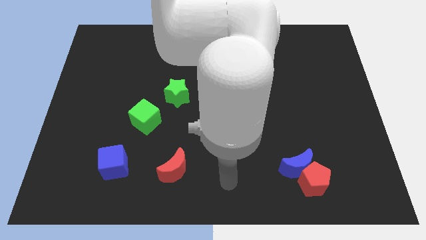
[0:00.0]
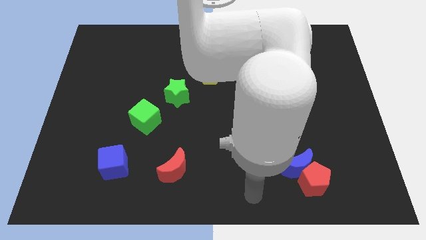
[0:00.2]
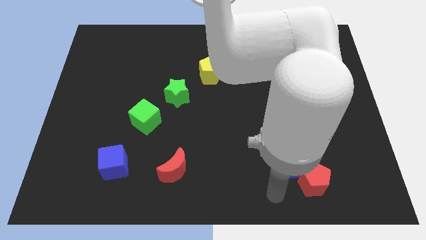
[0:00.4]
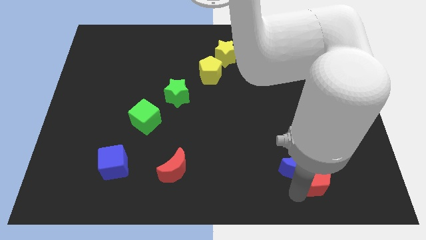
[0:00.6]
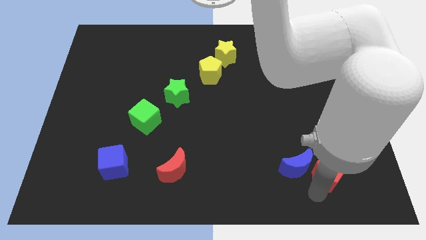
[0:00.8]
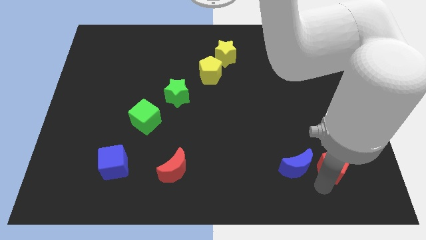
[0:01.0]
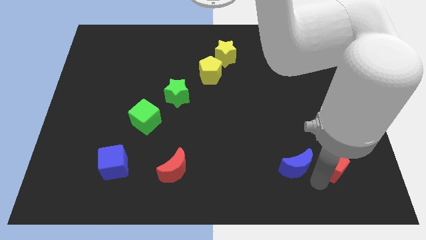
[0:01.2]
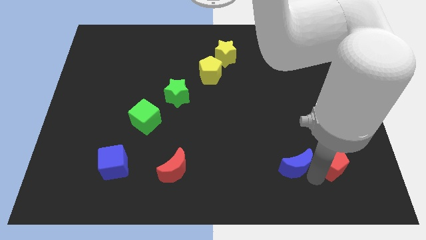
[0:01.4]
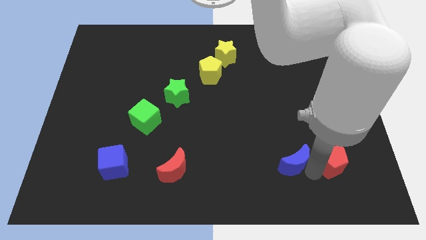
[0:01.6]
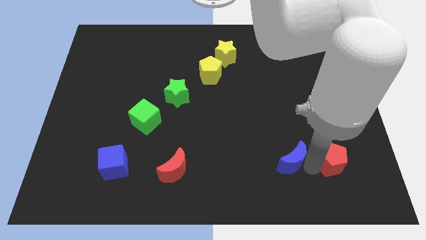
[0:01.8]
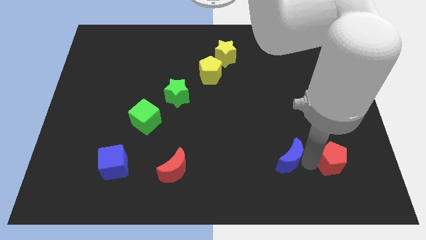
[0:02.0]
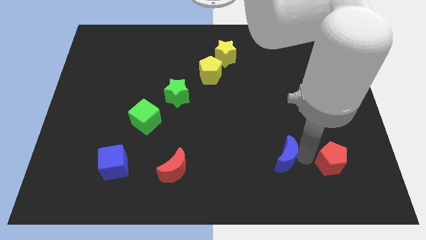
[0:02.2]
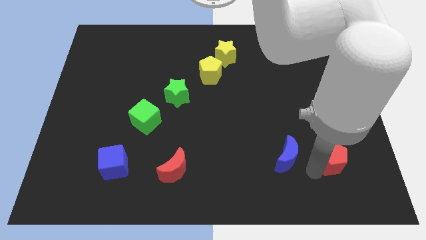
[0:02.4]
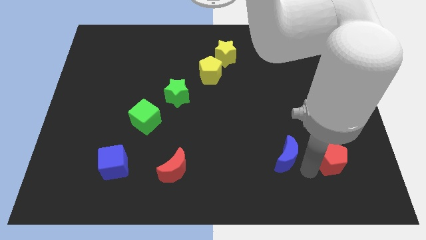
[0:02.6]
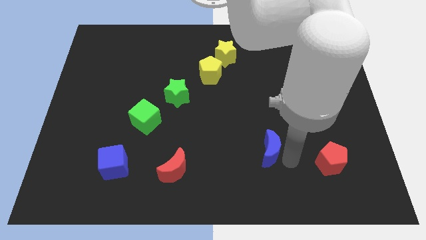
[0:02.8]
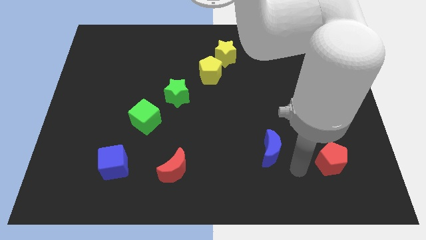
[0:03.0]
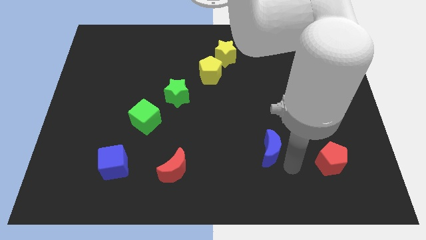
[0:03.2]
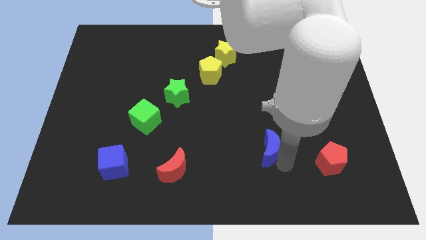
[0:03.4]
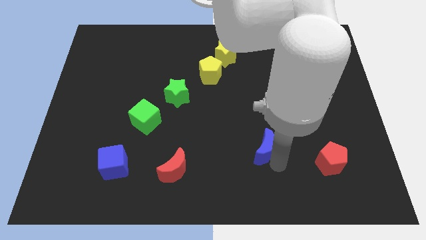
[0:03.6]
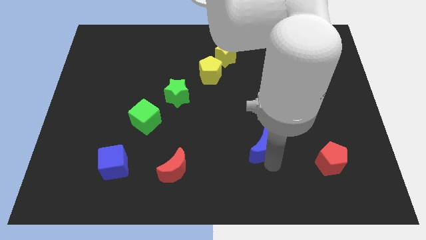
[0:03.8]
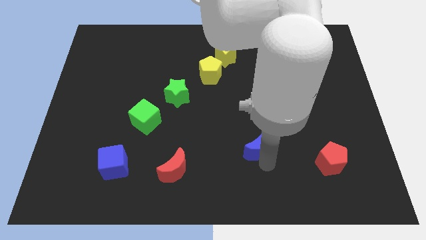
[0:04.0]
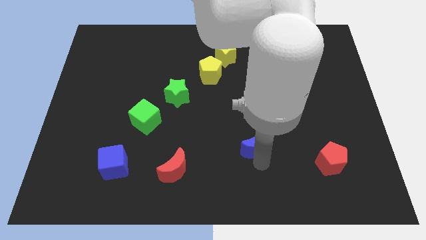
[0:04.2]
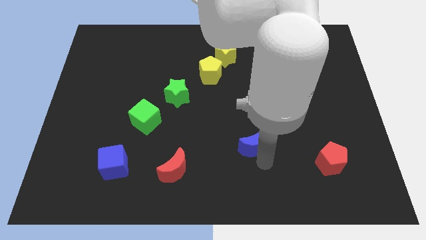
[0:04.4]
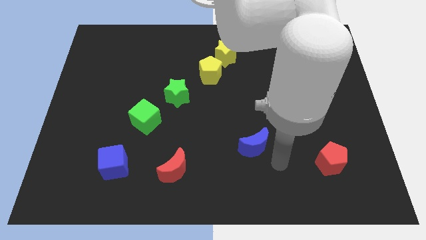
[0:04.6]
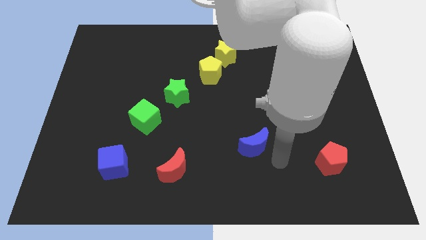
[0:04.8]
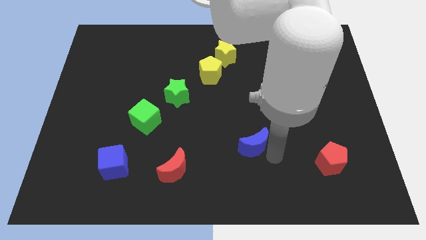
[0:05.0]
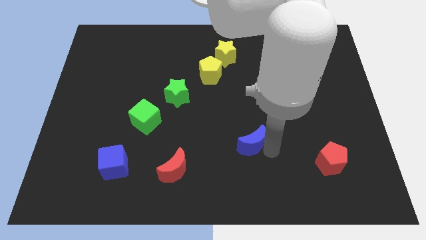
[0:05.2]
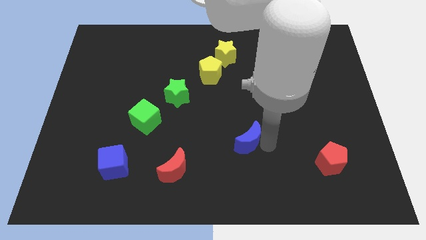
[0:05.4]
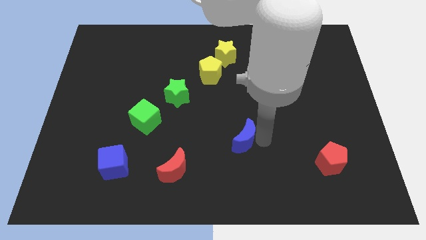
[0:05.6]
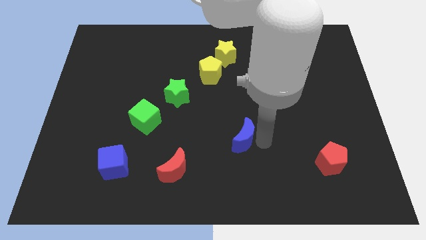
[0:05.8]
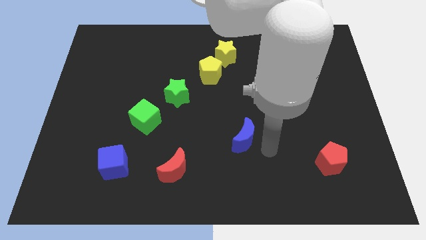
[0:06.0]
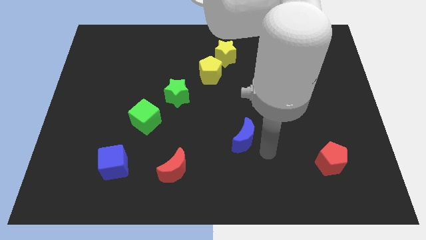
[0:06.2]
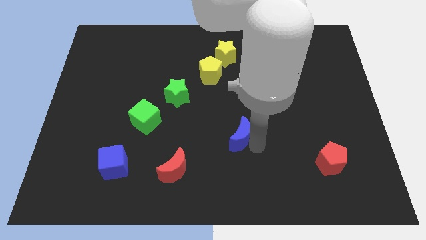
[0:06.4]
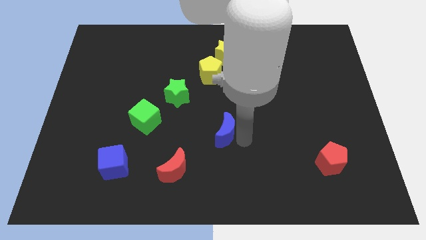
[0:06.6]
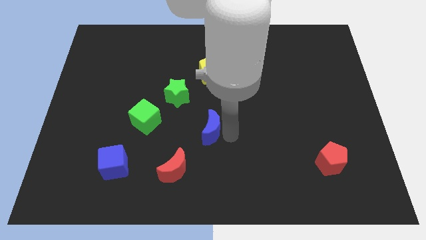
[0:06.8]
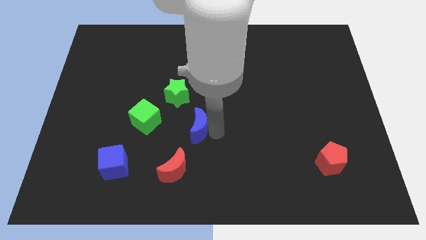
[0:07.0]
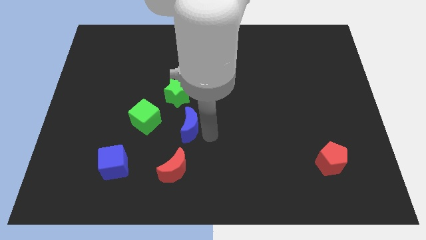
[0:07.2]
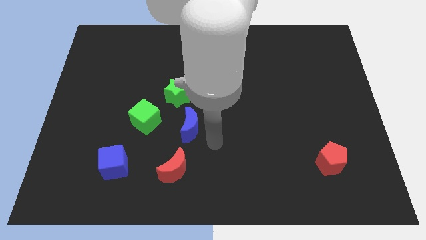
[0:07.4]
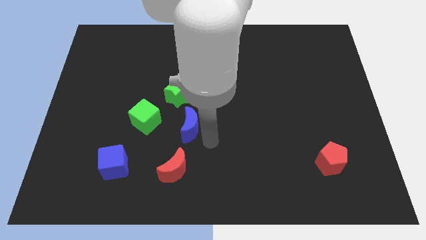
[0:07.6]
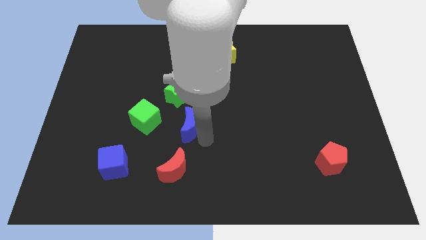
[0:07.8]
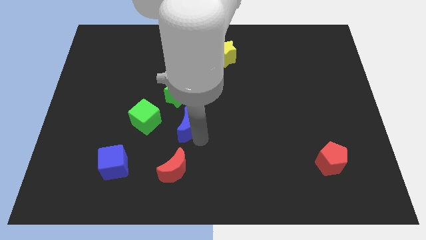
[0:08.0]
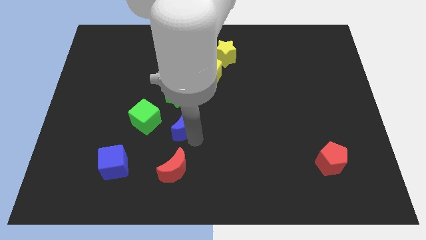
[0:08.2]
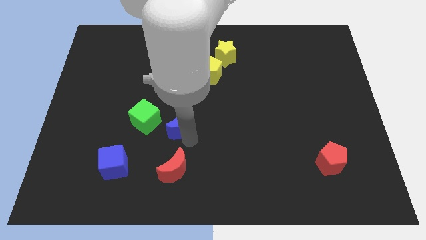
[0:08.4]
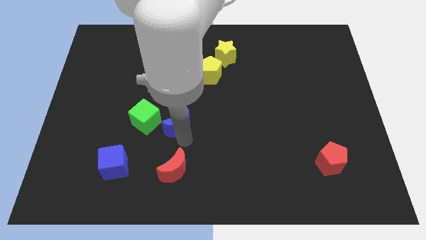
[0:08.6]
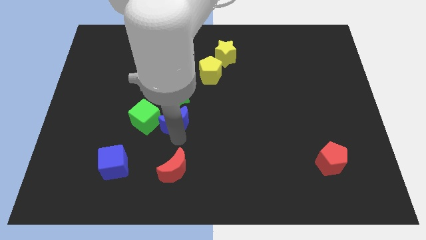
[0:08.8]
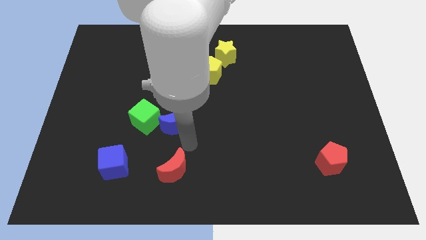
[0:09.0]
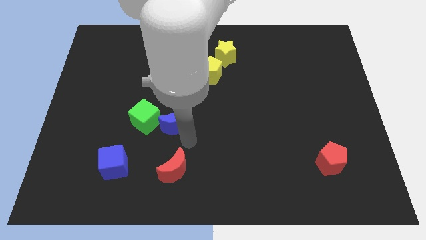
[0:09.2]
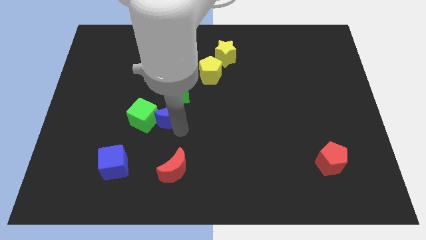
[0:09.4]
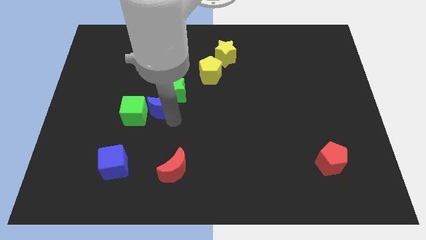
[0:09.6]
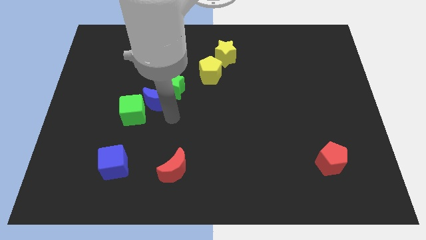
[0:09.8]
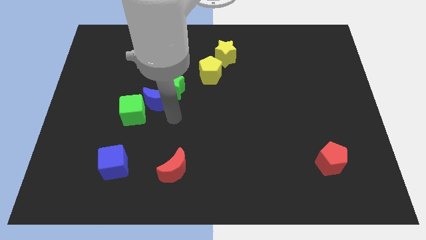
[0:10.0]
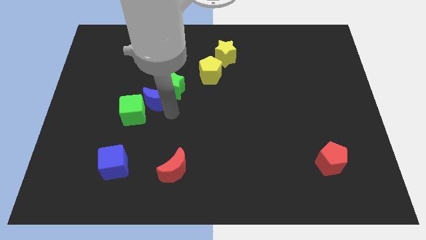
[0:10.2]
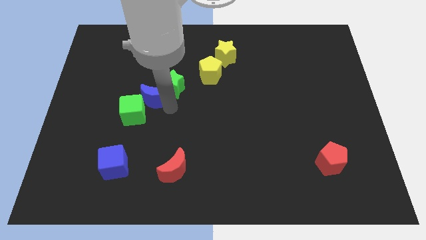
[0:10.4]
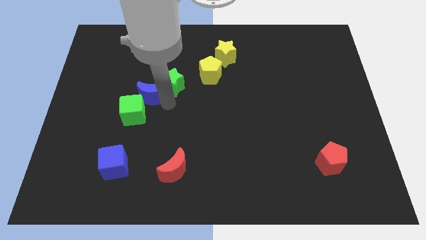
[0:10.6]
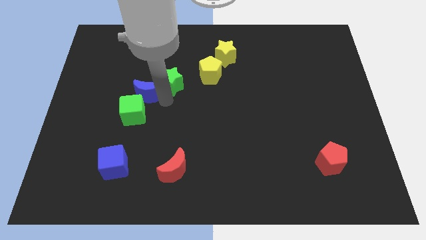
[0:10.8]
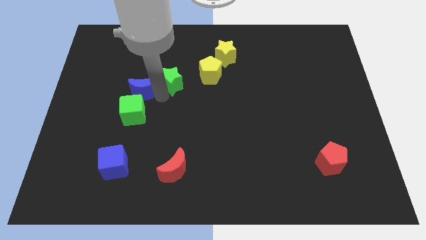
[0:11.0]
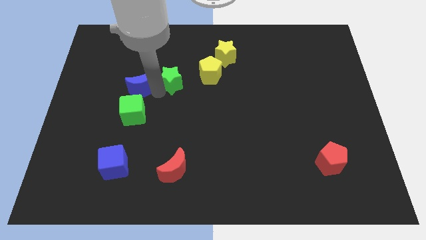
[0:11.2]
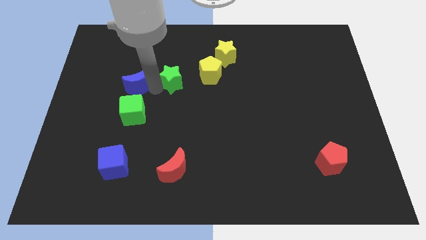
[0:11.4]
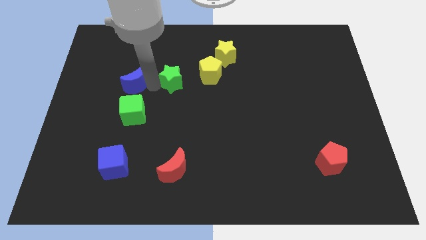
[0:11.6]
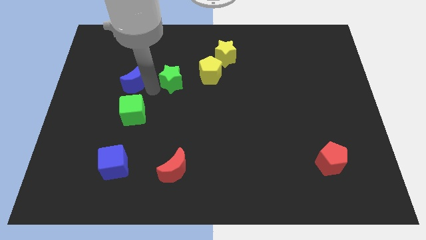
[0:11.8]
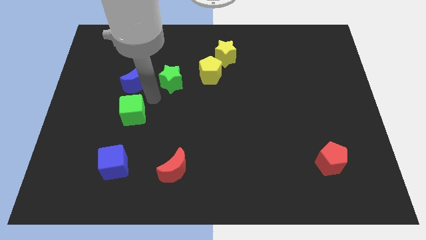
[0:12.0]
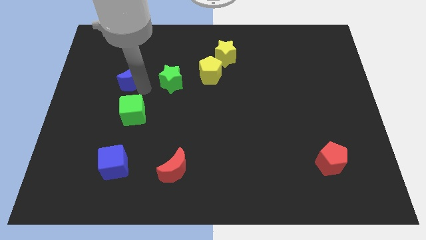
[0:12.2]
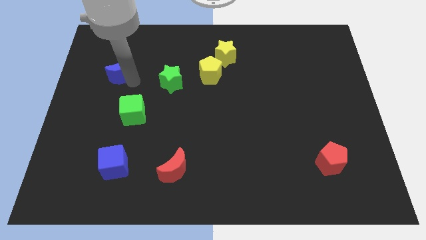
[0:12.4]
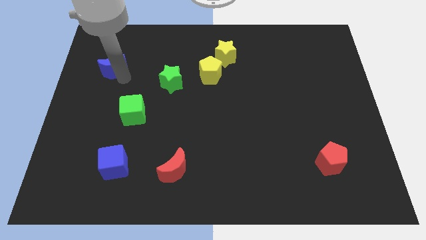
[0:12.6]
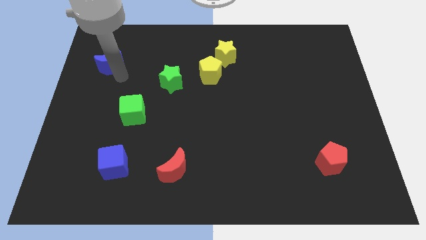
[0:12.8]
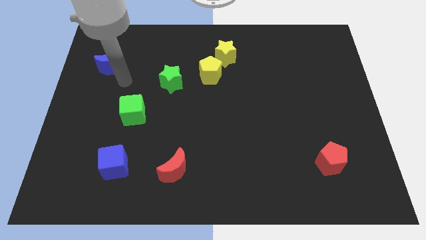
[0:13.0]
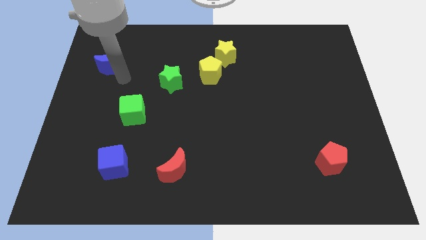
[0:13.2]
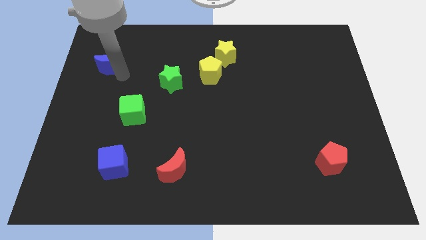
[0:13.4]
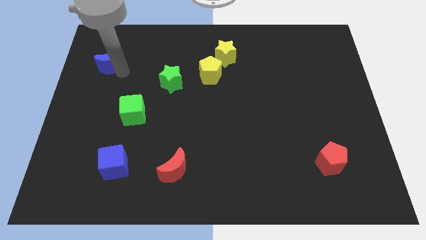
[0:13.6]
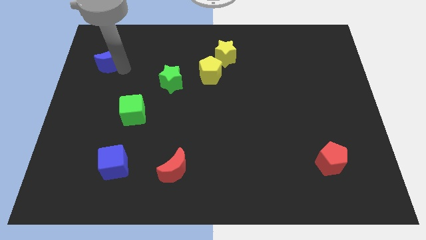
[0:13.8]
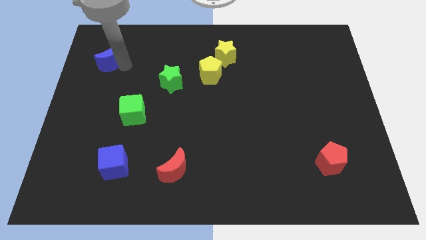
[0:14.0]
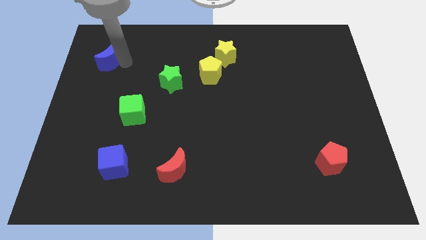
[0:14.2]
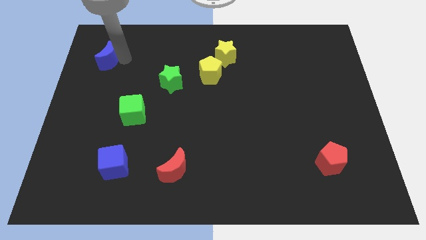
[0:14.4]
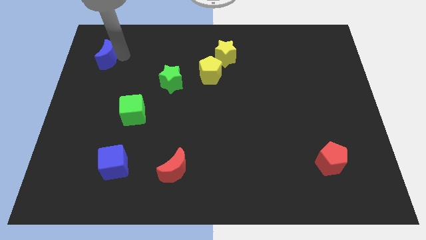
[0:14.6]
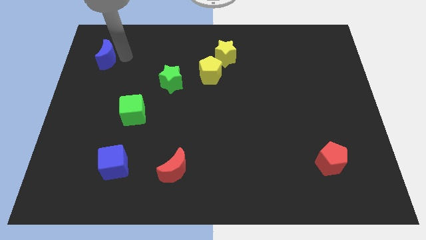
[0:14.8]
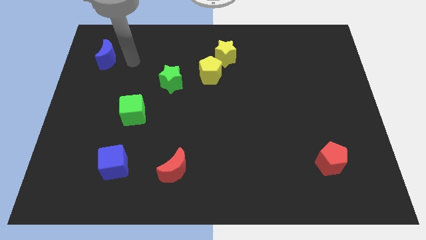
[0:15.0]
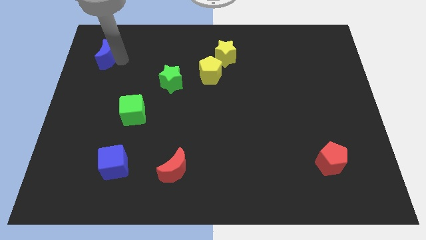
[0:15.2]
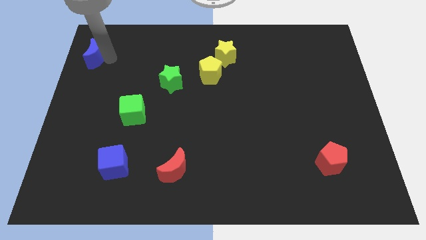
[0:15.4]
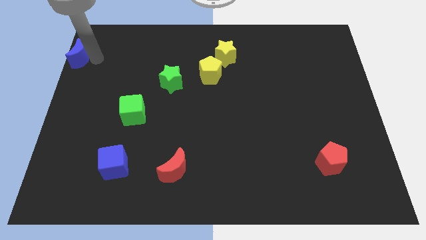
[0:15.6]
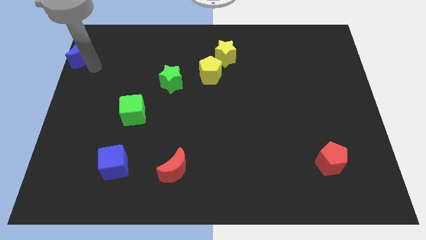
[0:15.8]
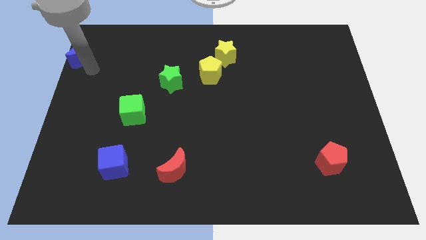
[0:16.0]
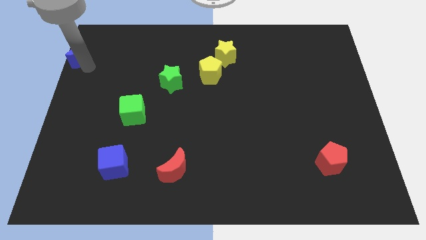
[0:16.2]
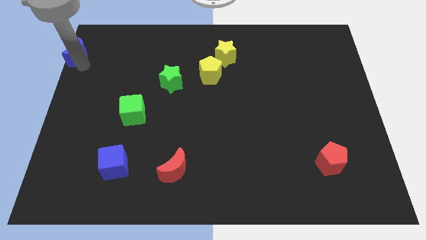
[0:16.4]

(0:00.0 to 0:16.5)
put the blue moon to the top left of the board
